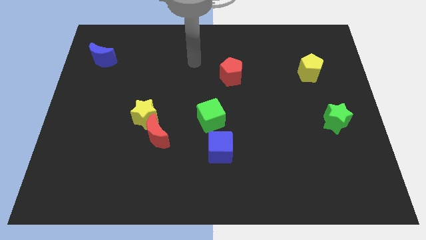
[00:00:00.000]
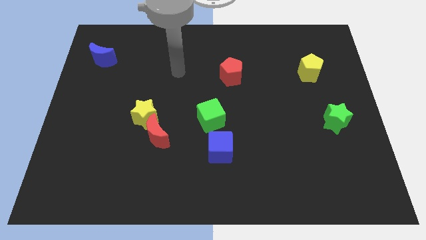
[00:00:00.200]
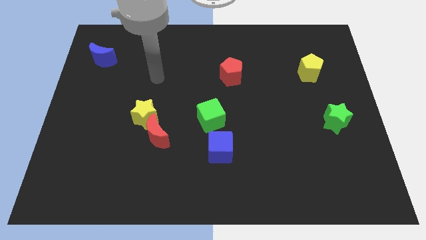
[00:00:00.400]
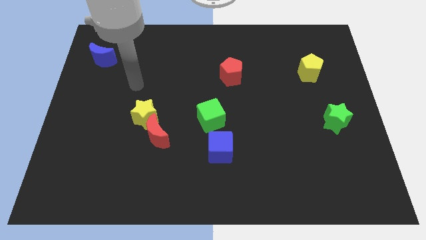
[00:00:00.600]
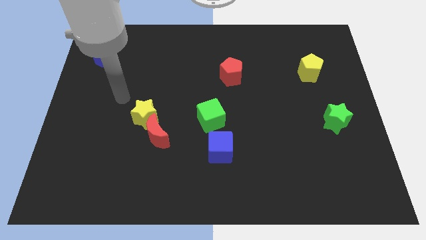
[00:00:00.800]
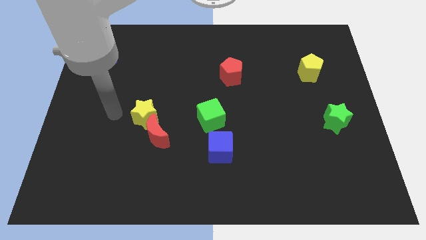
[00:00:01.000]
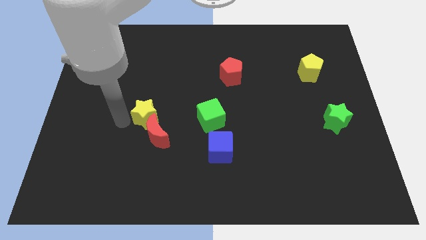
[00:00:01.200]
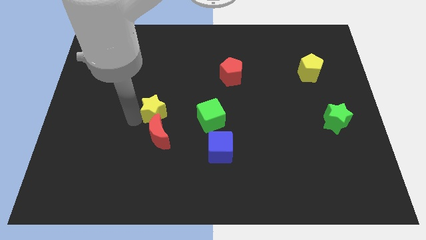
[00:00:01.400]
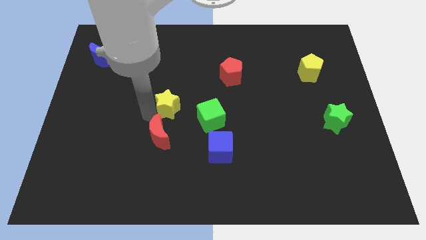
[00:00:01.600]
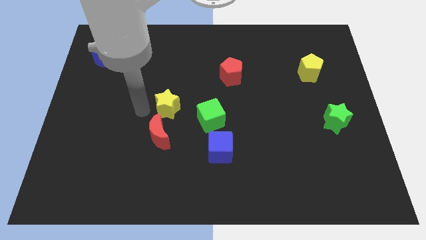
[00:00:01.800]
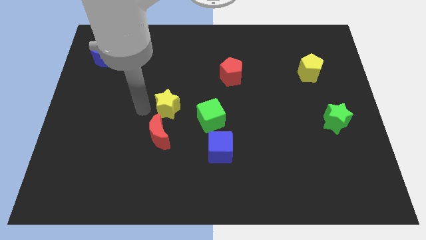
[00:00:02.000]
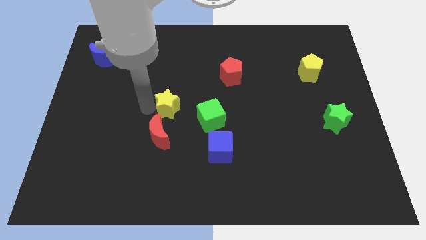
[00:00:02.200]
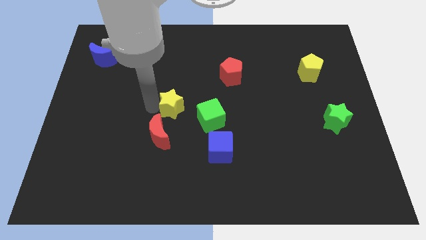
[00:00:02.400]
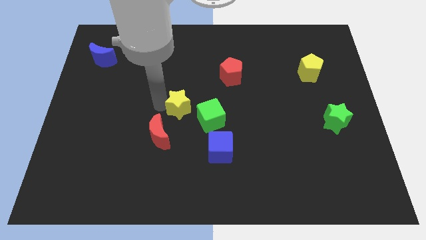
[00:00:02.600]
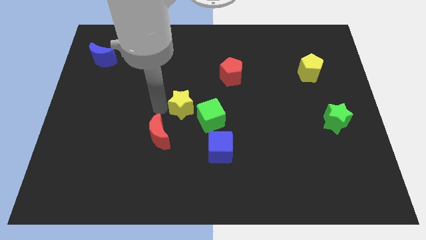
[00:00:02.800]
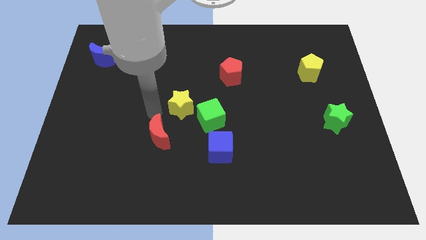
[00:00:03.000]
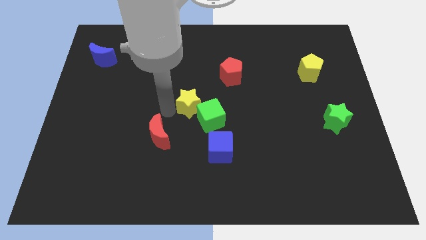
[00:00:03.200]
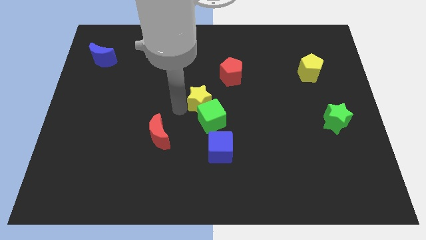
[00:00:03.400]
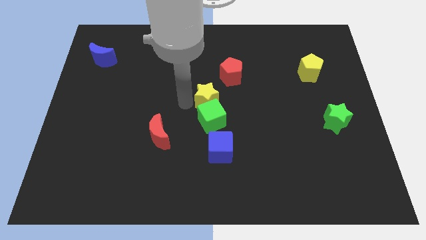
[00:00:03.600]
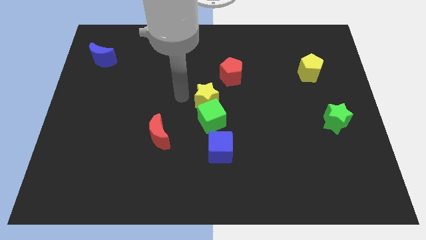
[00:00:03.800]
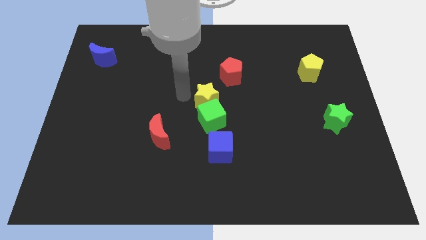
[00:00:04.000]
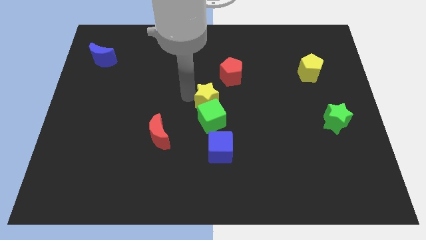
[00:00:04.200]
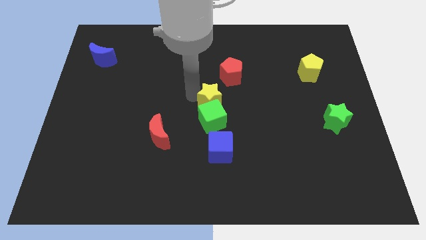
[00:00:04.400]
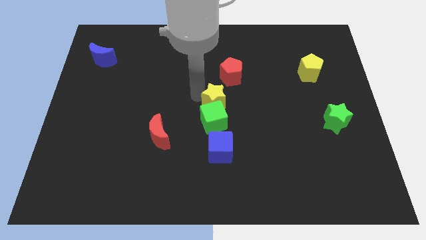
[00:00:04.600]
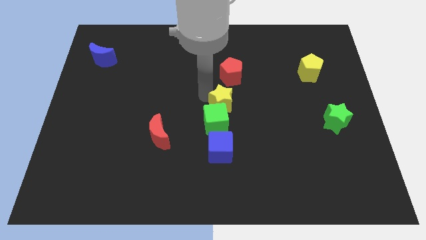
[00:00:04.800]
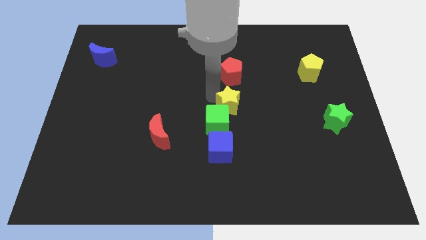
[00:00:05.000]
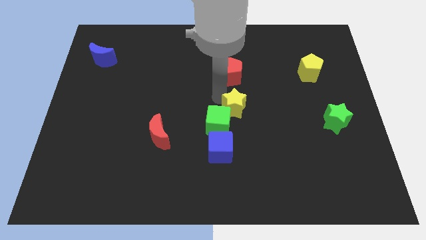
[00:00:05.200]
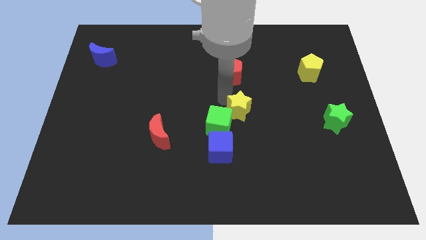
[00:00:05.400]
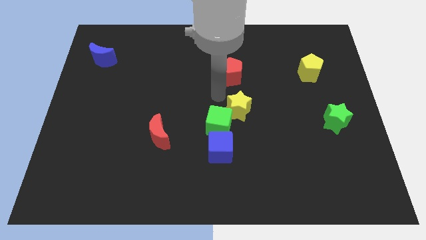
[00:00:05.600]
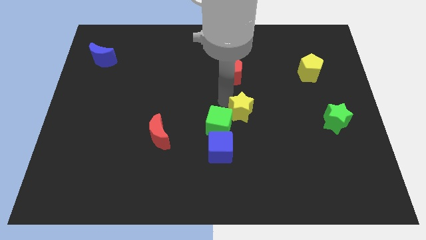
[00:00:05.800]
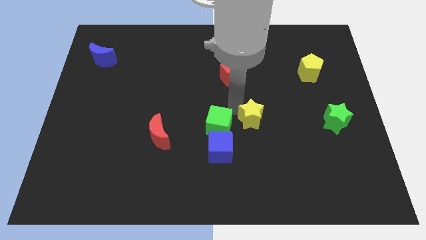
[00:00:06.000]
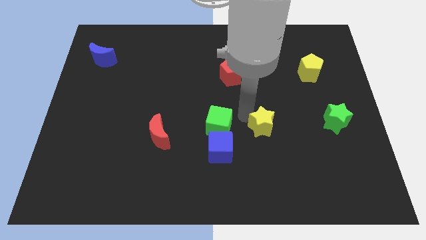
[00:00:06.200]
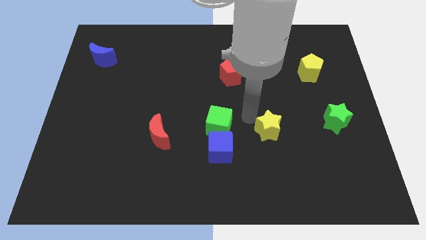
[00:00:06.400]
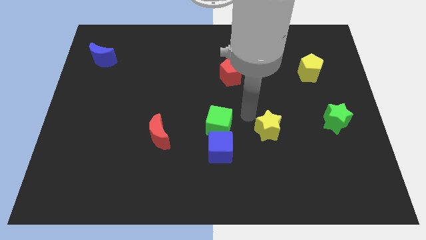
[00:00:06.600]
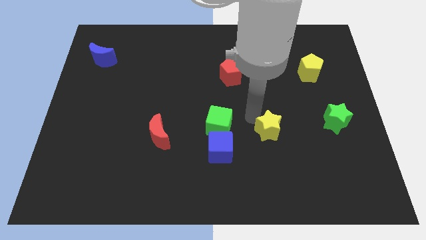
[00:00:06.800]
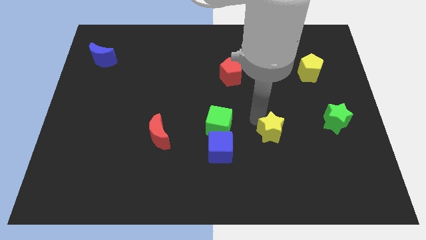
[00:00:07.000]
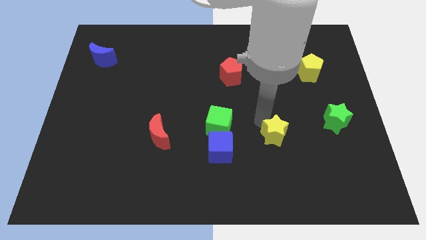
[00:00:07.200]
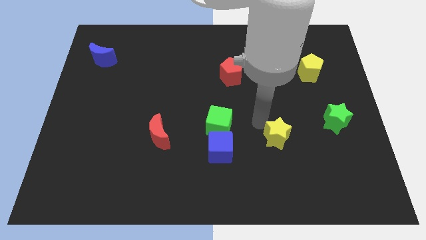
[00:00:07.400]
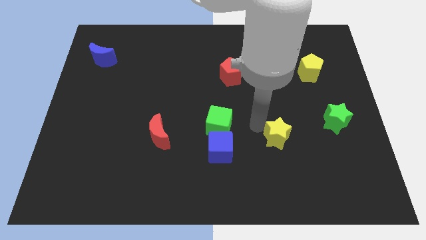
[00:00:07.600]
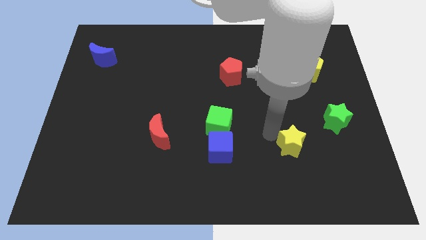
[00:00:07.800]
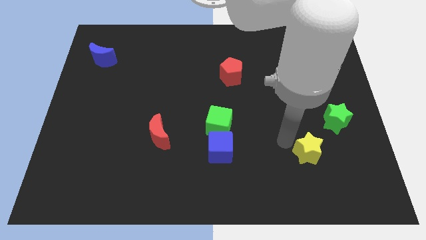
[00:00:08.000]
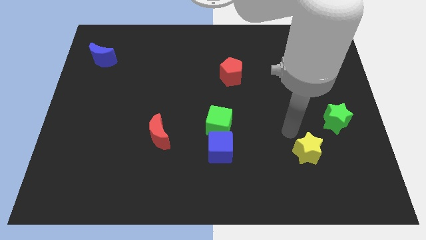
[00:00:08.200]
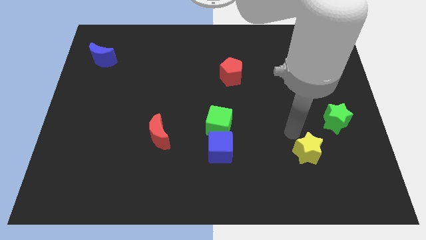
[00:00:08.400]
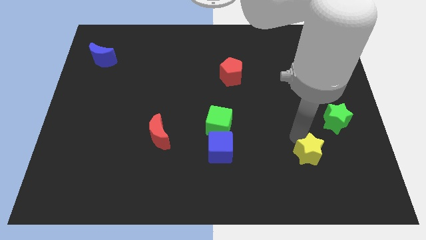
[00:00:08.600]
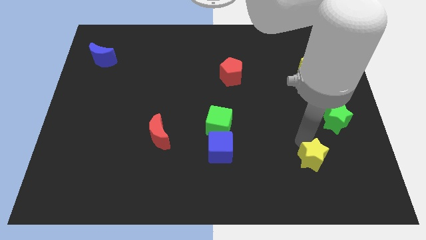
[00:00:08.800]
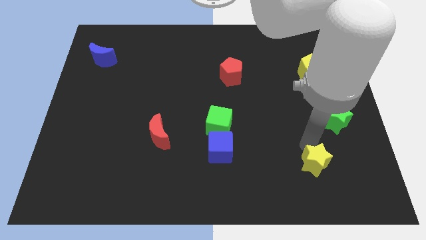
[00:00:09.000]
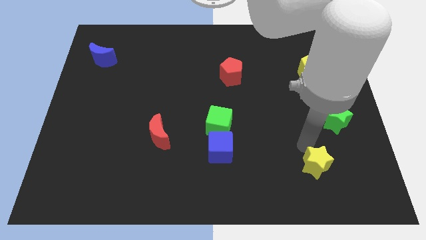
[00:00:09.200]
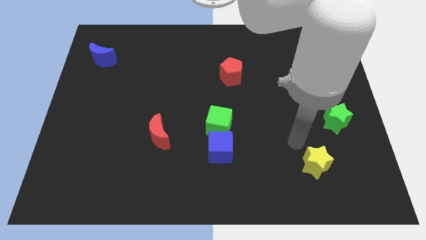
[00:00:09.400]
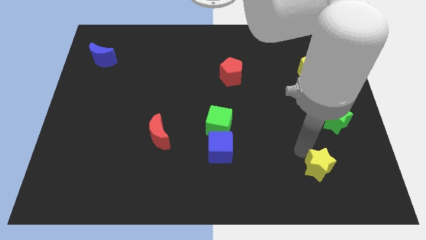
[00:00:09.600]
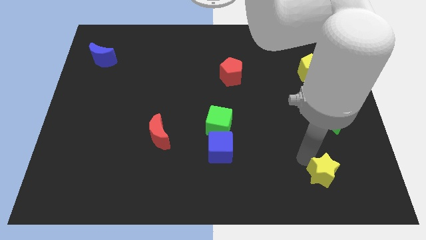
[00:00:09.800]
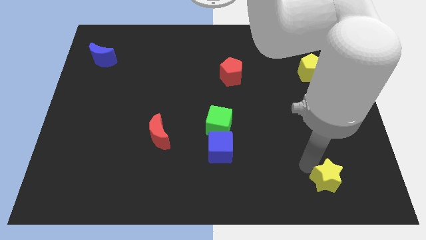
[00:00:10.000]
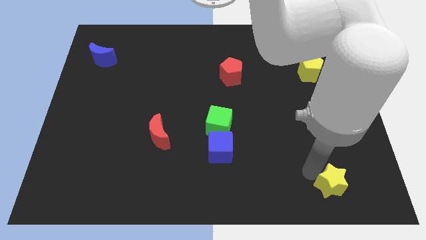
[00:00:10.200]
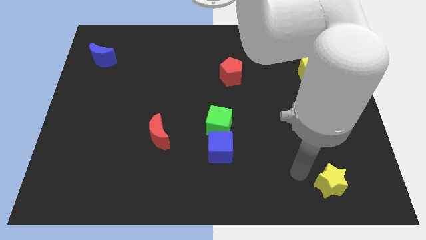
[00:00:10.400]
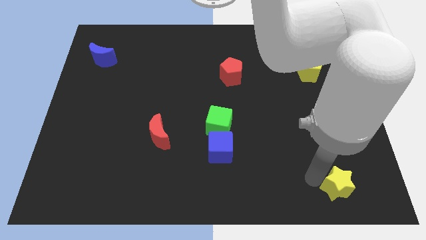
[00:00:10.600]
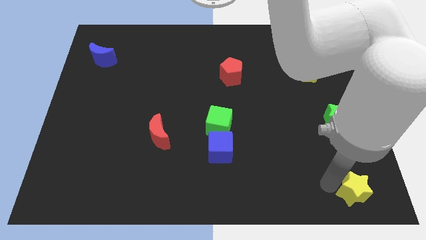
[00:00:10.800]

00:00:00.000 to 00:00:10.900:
put the yellow star to the bottom right of the board

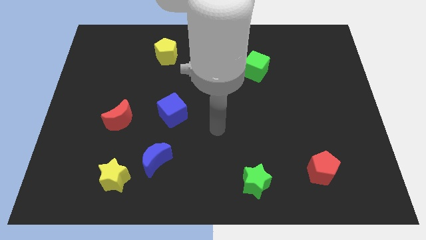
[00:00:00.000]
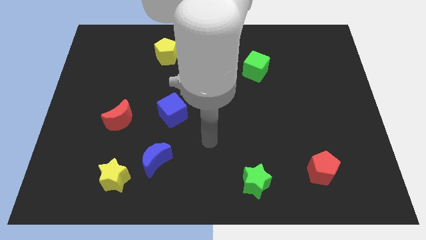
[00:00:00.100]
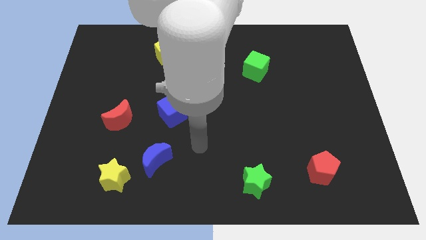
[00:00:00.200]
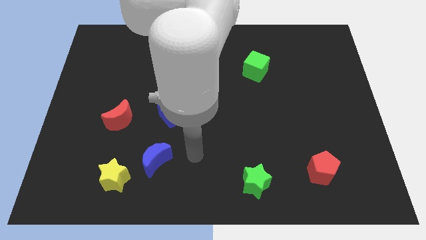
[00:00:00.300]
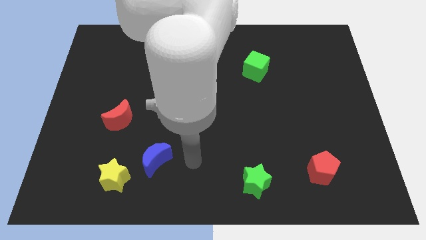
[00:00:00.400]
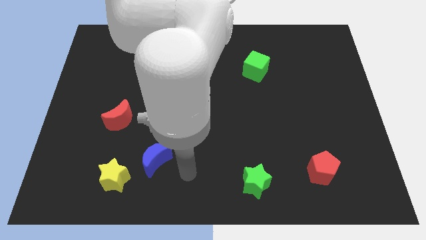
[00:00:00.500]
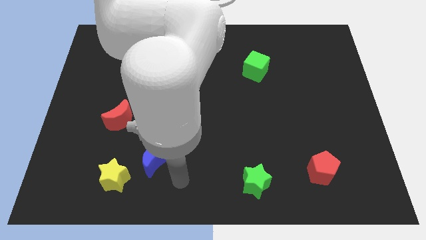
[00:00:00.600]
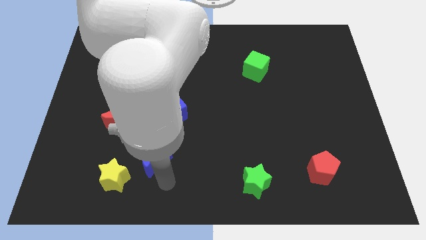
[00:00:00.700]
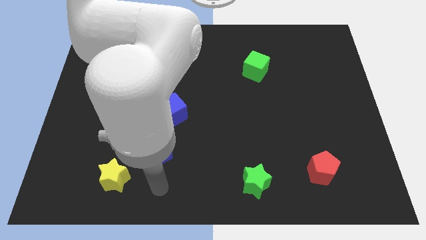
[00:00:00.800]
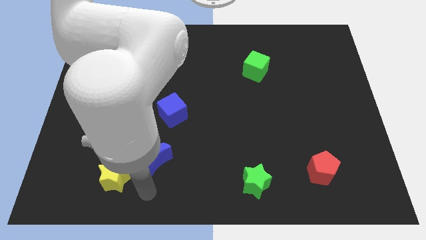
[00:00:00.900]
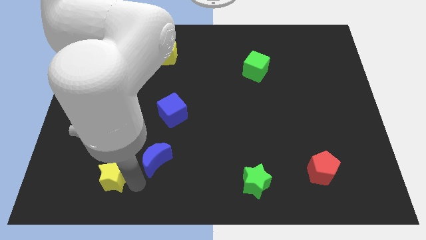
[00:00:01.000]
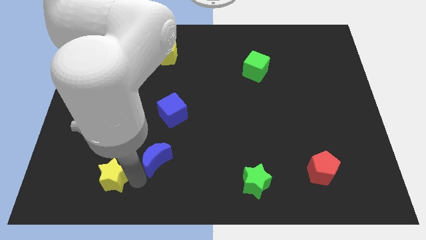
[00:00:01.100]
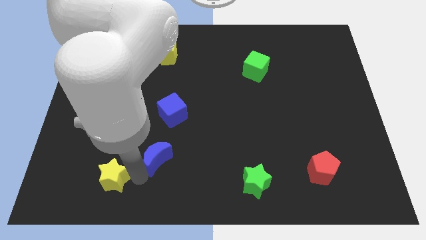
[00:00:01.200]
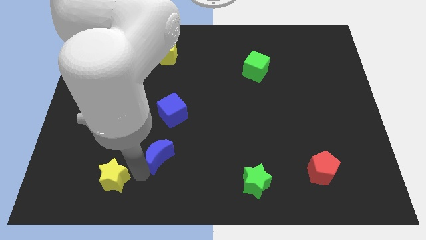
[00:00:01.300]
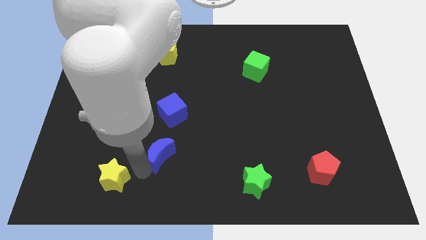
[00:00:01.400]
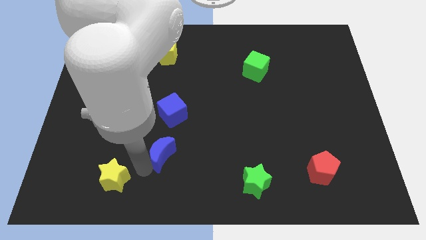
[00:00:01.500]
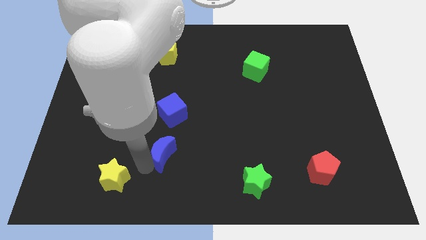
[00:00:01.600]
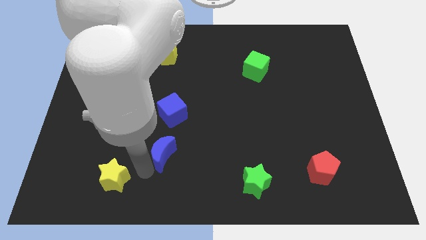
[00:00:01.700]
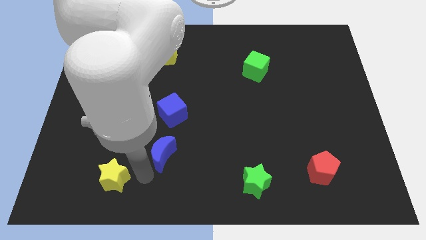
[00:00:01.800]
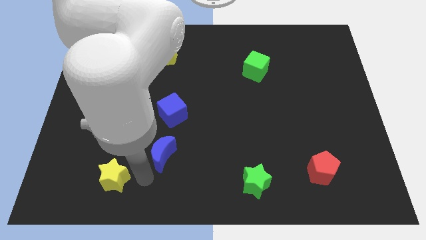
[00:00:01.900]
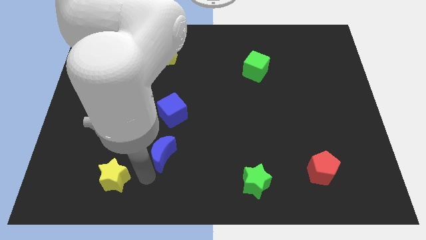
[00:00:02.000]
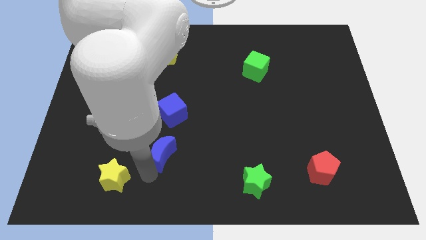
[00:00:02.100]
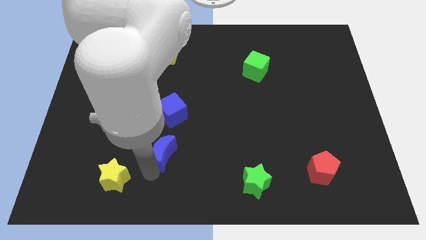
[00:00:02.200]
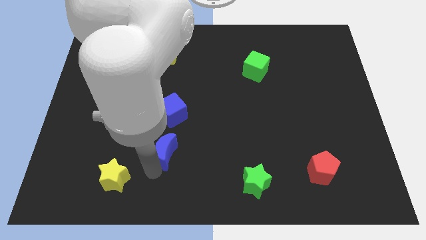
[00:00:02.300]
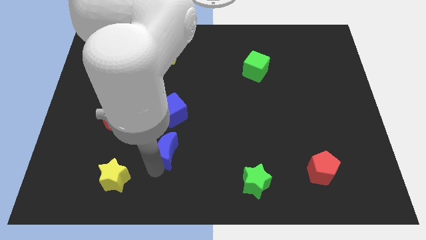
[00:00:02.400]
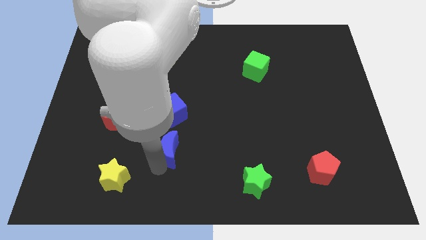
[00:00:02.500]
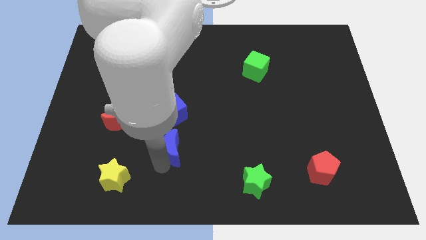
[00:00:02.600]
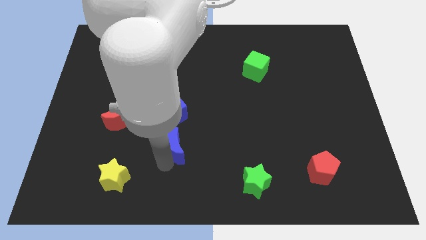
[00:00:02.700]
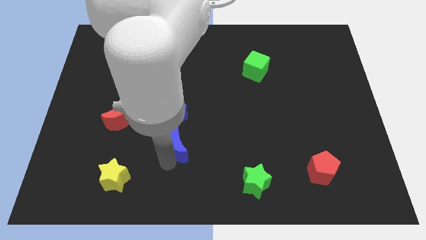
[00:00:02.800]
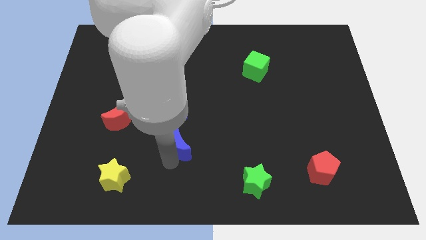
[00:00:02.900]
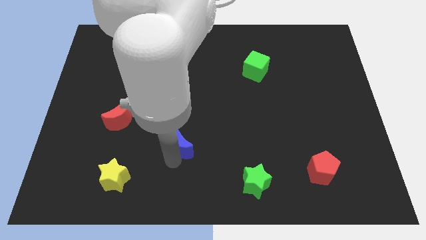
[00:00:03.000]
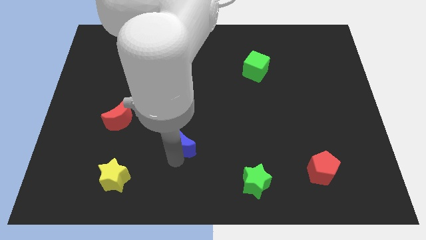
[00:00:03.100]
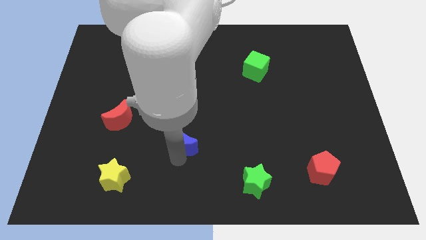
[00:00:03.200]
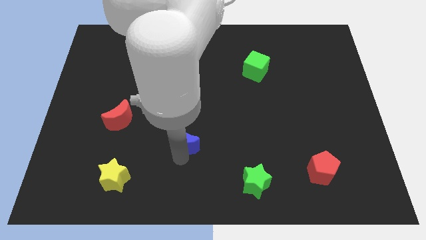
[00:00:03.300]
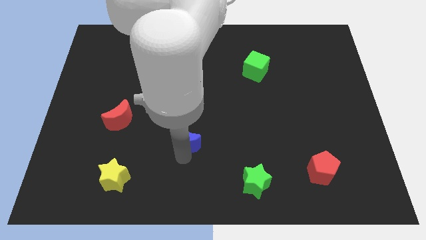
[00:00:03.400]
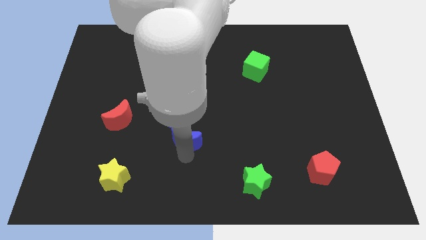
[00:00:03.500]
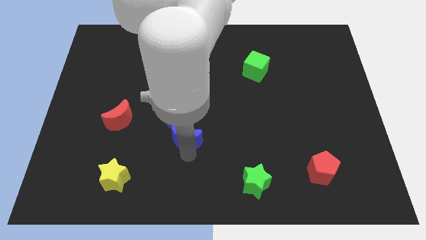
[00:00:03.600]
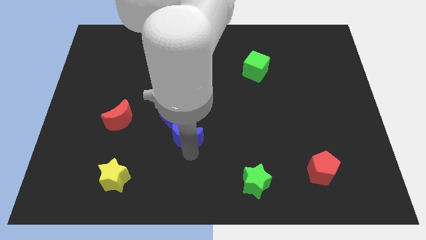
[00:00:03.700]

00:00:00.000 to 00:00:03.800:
push the blue moon to the center of the board
